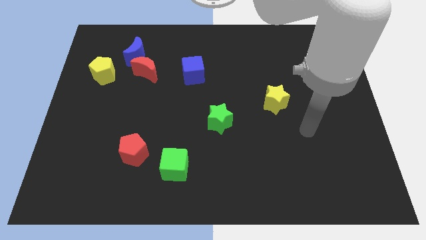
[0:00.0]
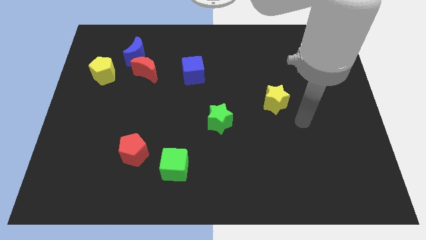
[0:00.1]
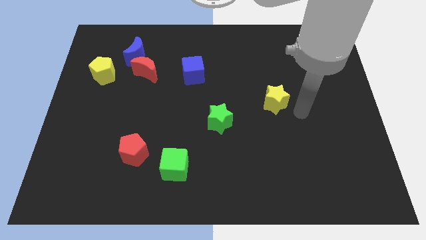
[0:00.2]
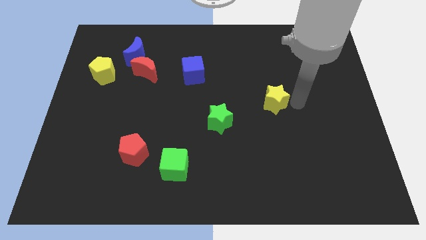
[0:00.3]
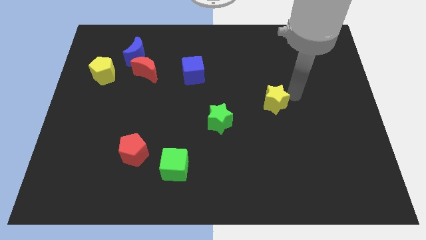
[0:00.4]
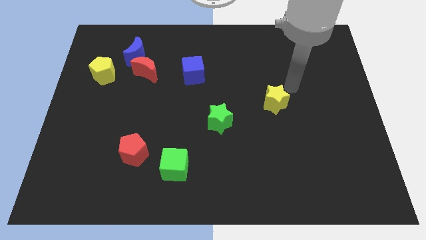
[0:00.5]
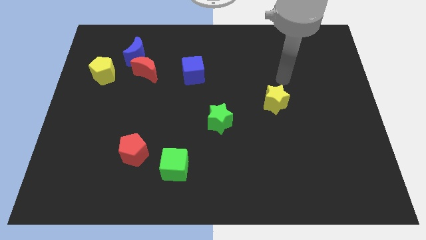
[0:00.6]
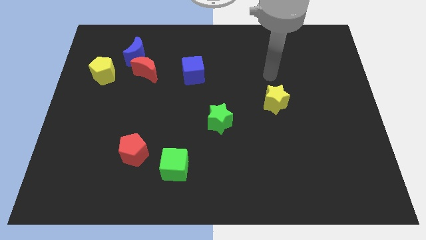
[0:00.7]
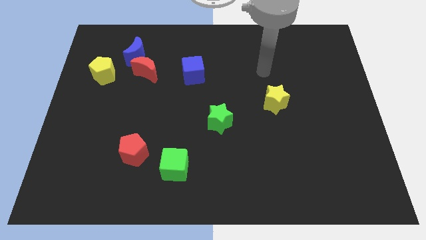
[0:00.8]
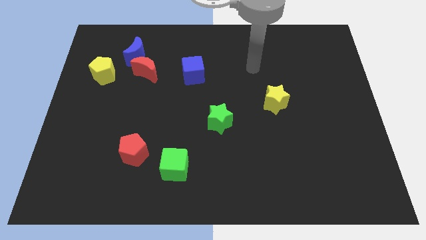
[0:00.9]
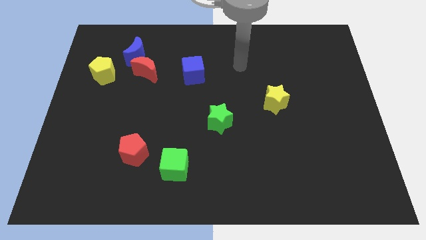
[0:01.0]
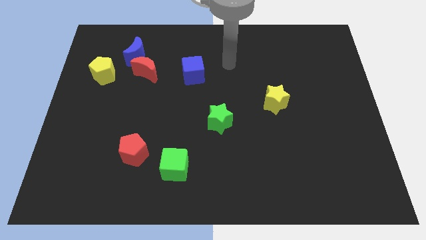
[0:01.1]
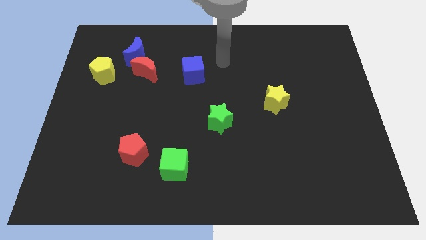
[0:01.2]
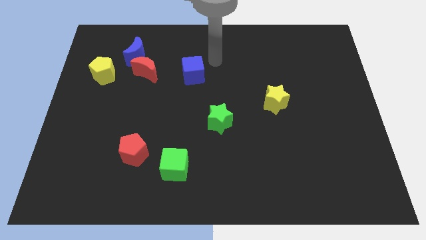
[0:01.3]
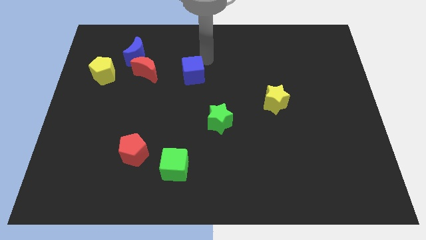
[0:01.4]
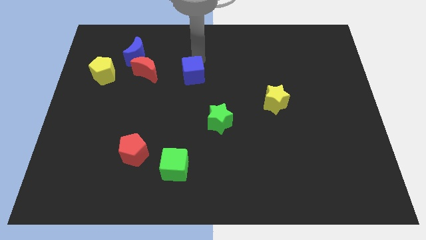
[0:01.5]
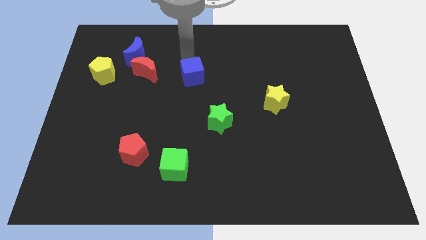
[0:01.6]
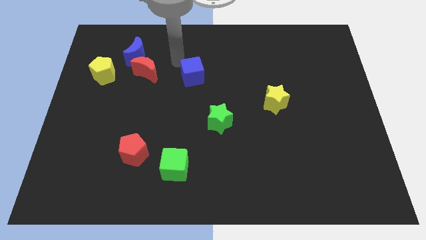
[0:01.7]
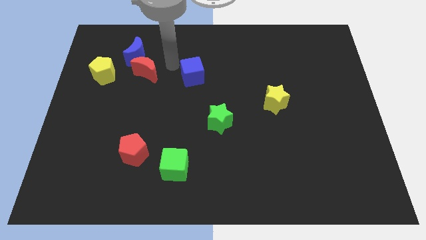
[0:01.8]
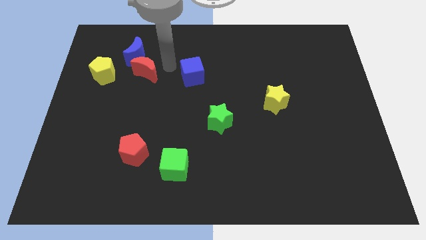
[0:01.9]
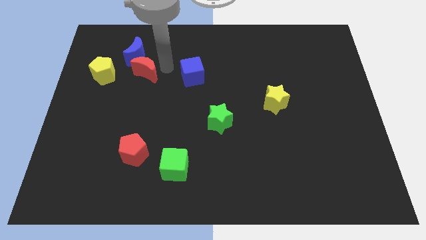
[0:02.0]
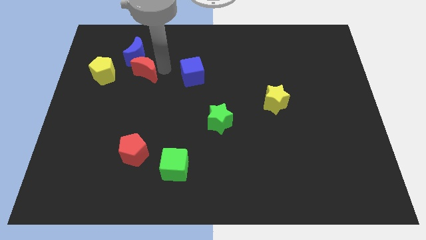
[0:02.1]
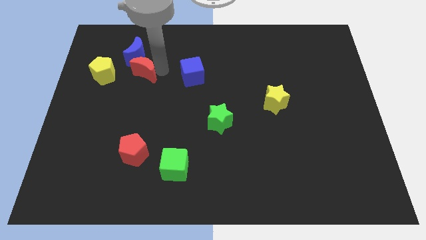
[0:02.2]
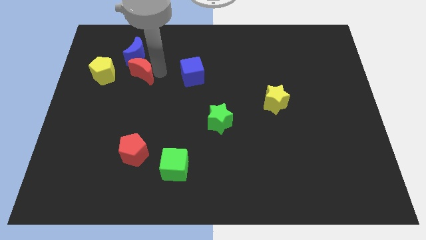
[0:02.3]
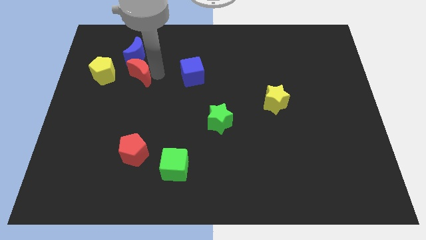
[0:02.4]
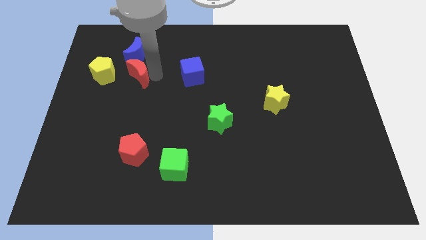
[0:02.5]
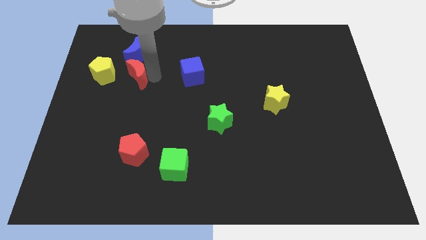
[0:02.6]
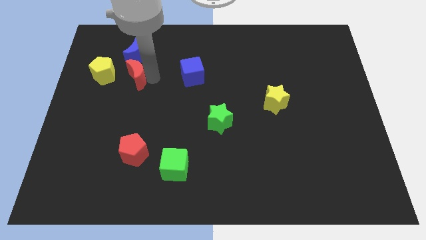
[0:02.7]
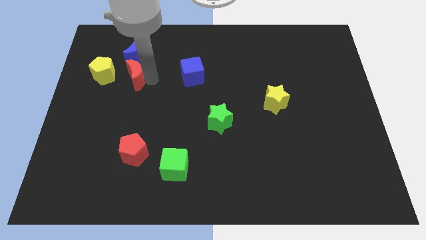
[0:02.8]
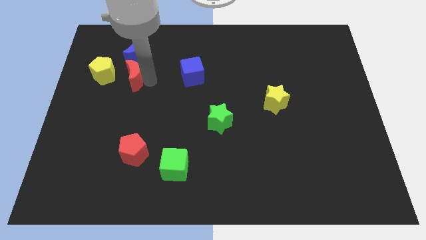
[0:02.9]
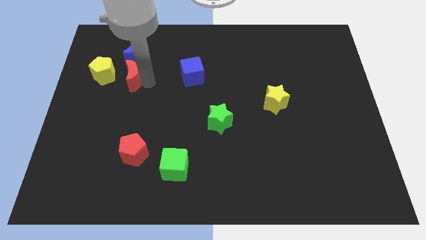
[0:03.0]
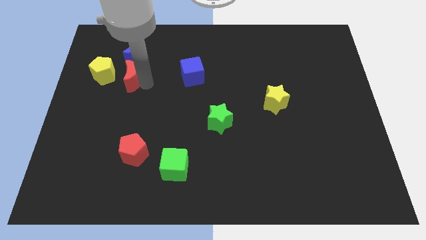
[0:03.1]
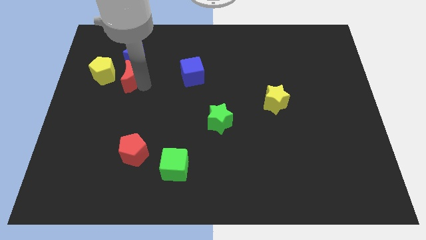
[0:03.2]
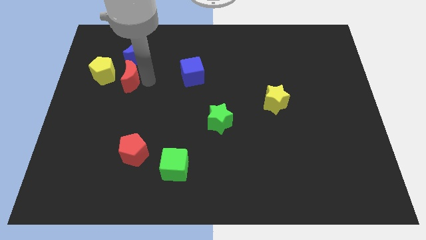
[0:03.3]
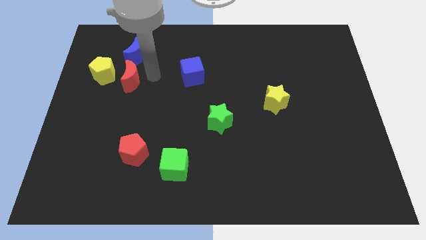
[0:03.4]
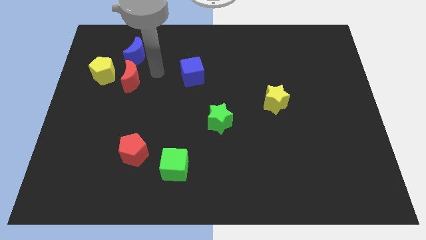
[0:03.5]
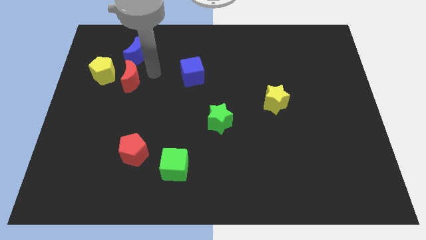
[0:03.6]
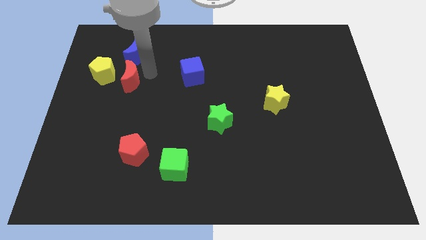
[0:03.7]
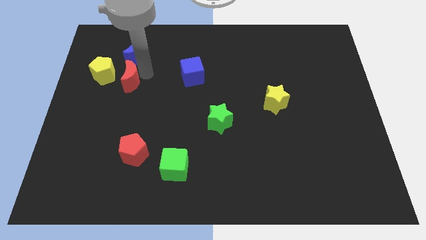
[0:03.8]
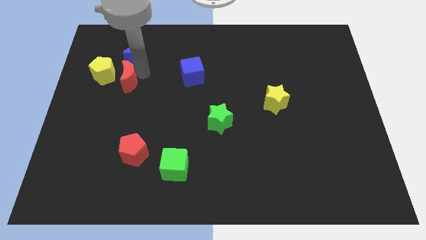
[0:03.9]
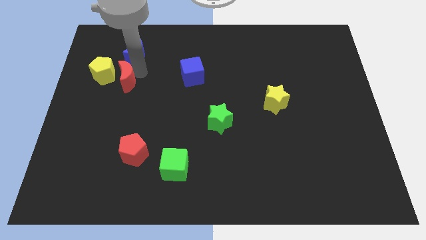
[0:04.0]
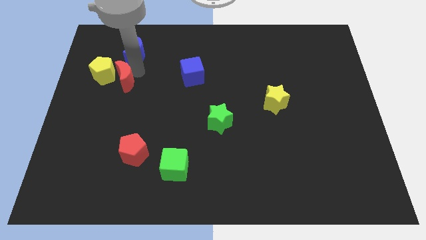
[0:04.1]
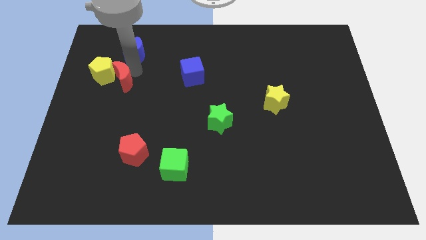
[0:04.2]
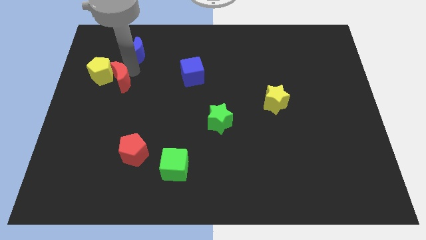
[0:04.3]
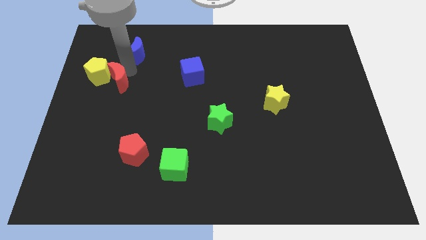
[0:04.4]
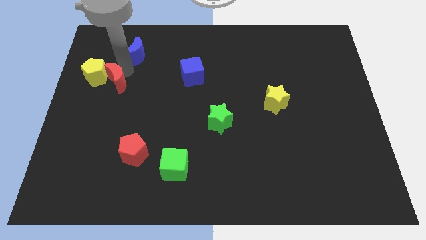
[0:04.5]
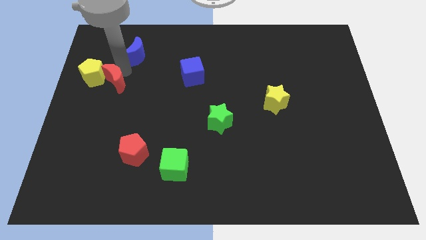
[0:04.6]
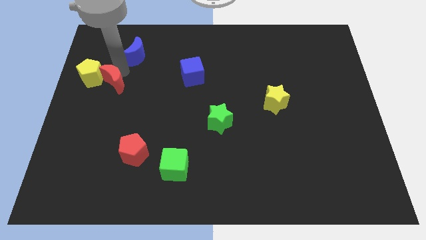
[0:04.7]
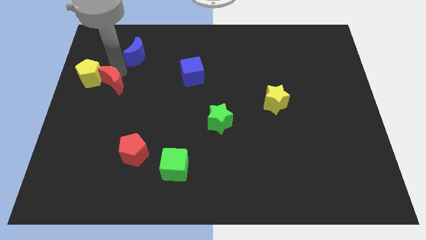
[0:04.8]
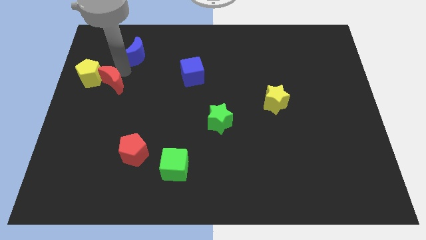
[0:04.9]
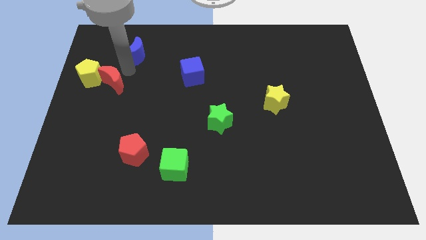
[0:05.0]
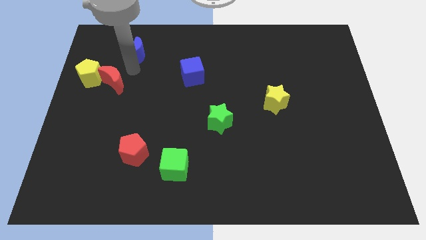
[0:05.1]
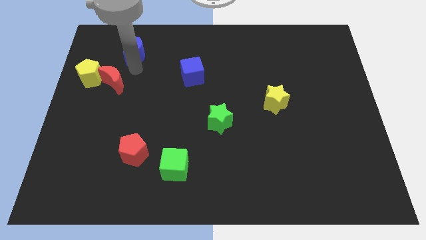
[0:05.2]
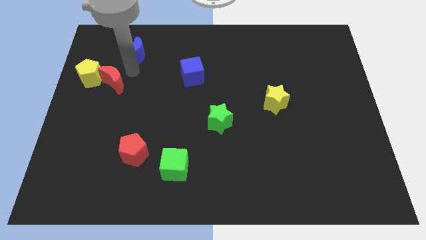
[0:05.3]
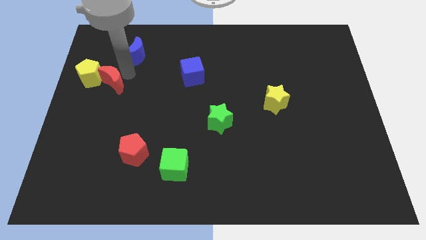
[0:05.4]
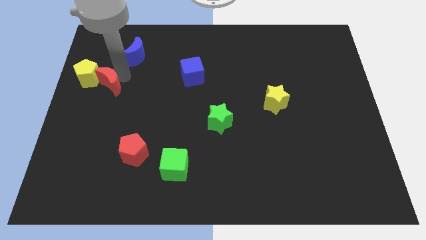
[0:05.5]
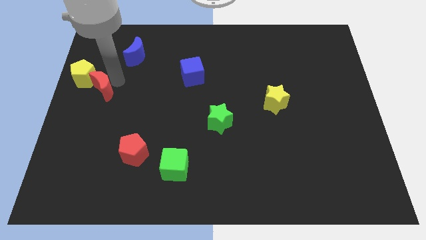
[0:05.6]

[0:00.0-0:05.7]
slide the red moon to the left side of the board

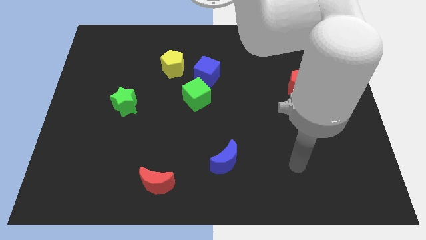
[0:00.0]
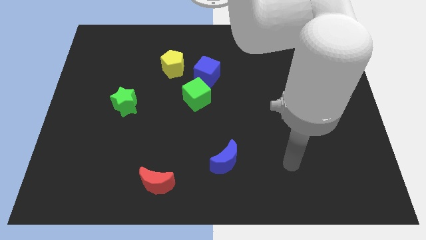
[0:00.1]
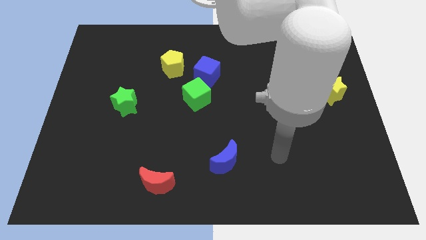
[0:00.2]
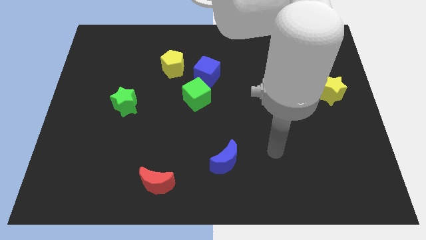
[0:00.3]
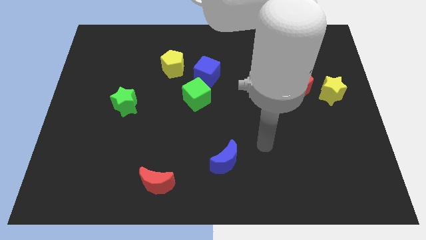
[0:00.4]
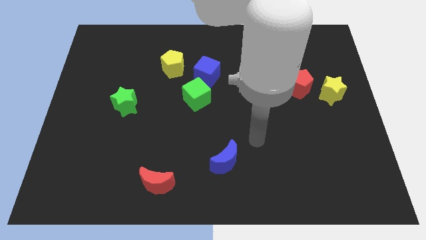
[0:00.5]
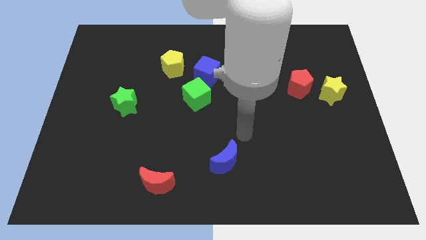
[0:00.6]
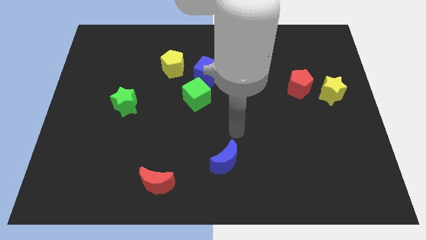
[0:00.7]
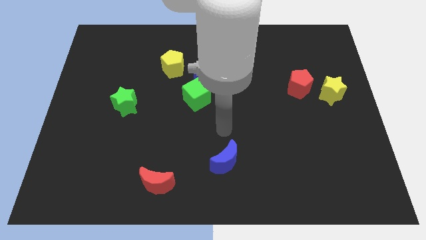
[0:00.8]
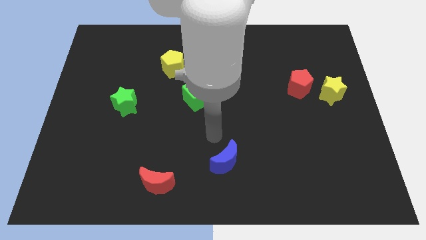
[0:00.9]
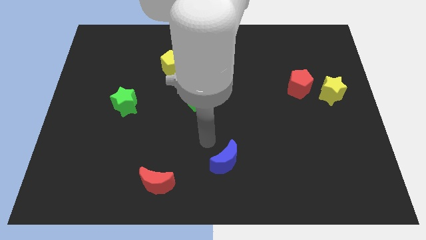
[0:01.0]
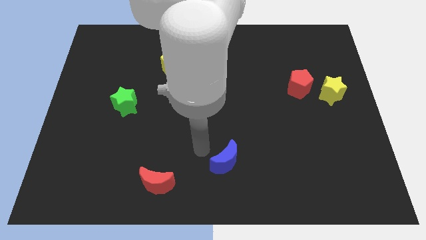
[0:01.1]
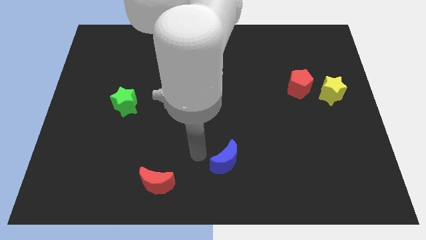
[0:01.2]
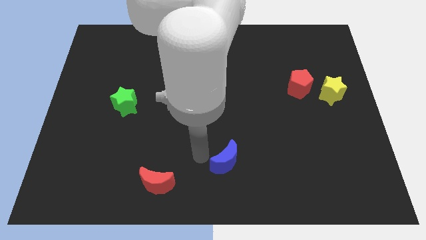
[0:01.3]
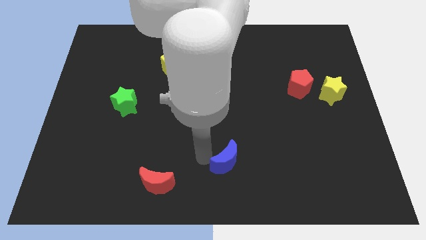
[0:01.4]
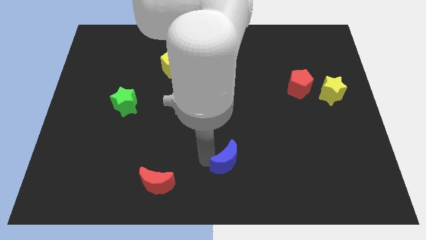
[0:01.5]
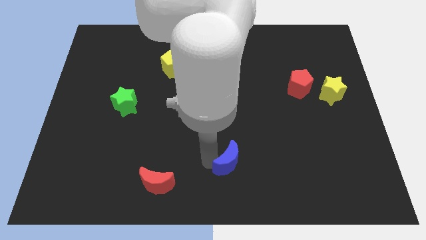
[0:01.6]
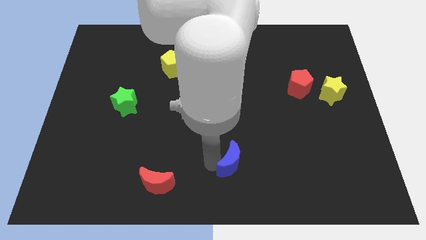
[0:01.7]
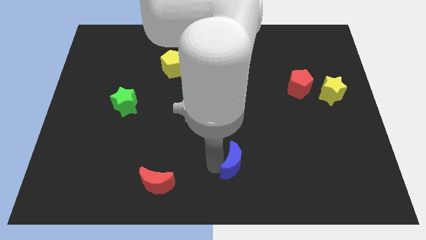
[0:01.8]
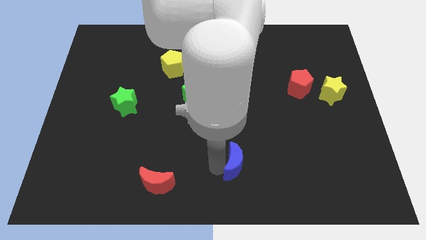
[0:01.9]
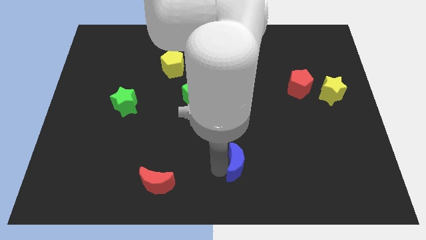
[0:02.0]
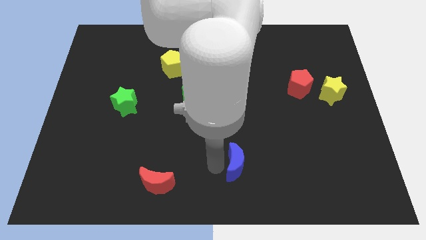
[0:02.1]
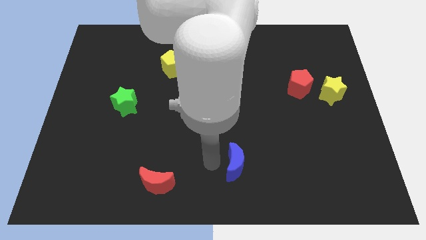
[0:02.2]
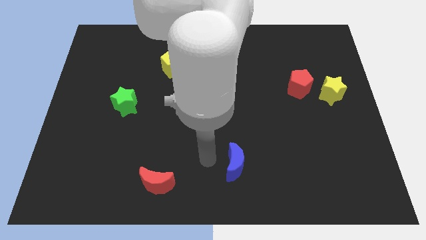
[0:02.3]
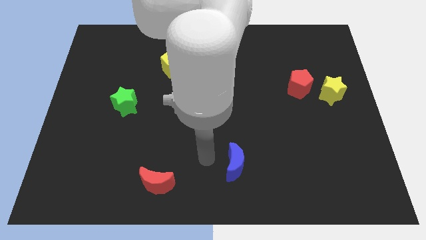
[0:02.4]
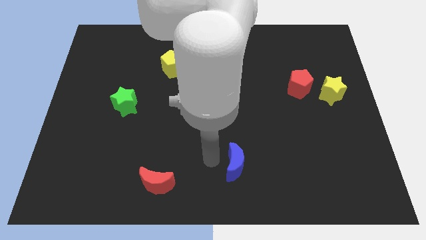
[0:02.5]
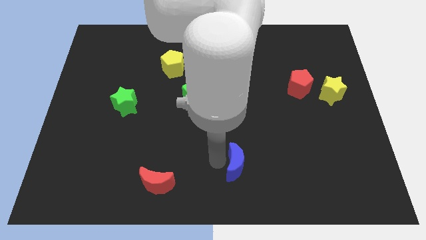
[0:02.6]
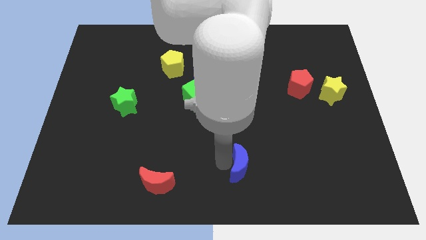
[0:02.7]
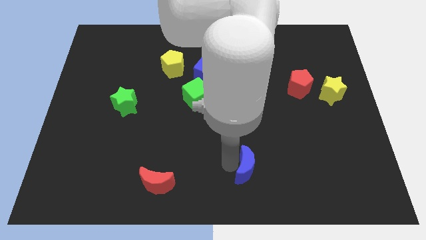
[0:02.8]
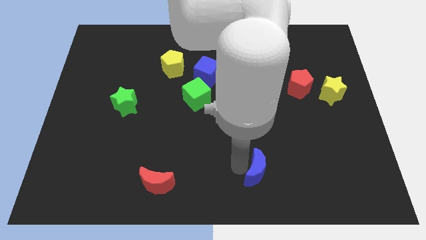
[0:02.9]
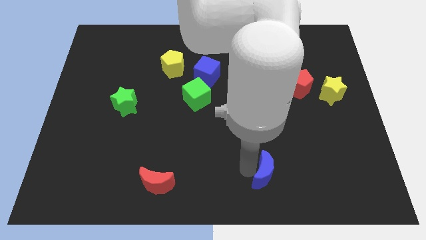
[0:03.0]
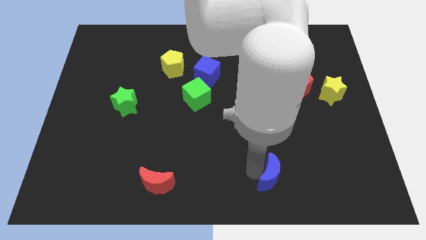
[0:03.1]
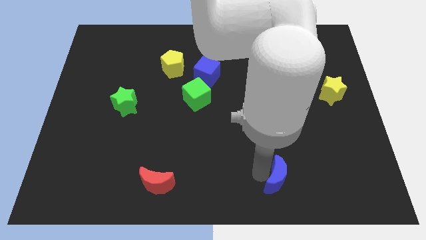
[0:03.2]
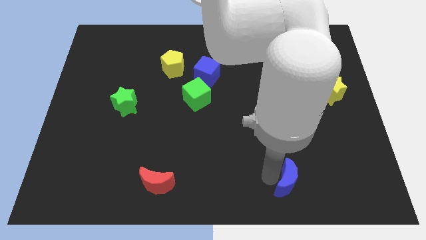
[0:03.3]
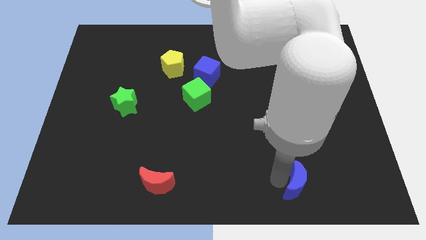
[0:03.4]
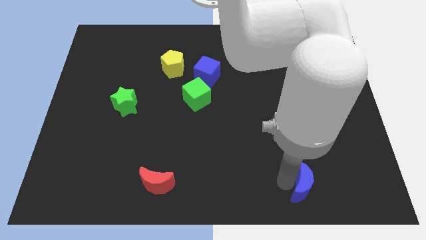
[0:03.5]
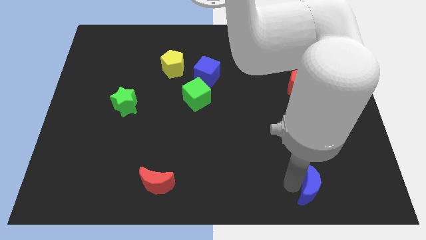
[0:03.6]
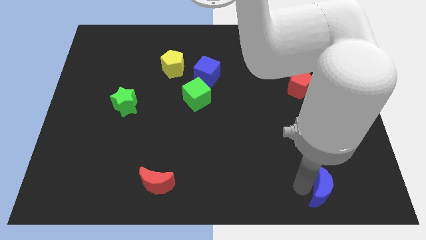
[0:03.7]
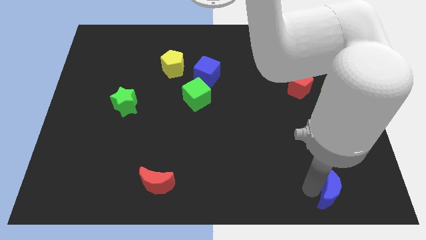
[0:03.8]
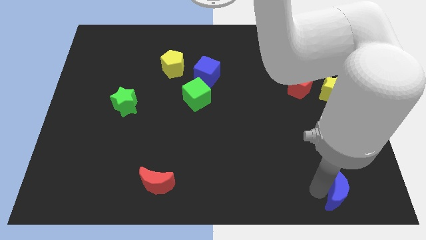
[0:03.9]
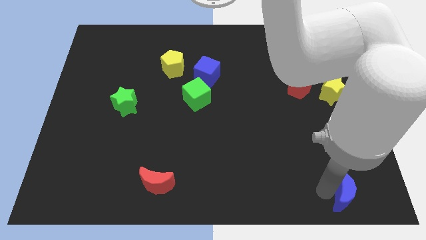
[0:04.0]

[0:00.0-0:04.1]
push the blue moon to the lower right corner
